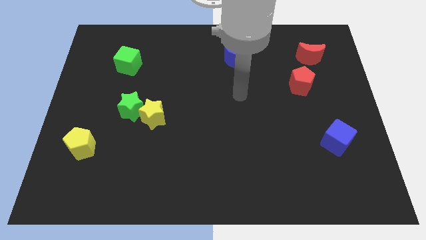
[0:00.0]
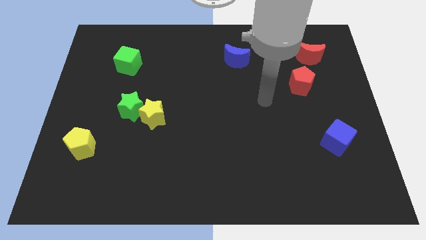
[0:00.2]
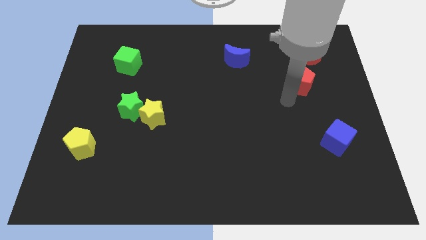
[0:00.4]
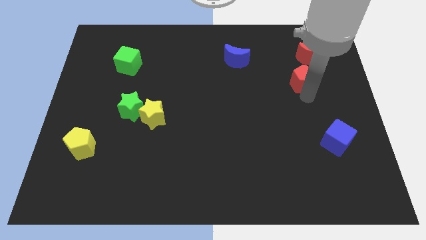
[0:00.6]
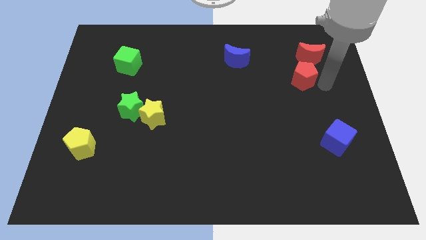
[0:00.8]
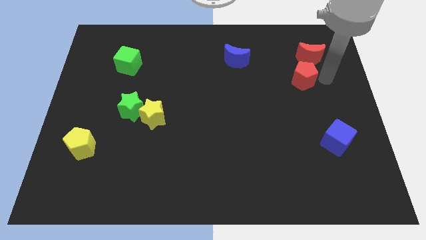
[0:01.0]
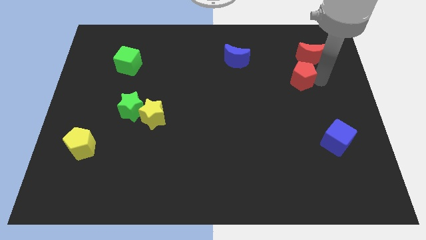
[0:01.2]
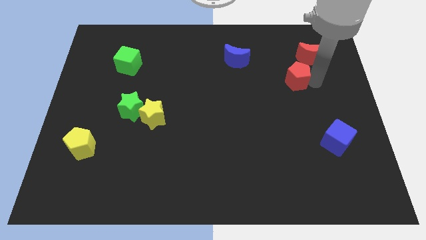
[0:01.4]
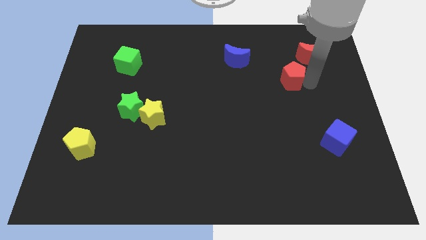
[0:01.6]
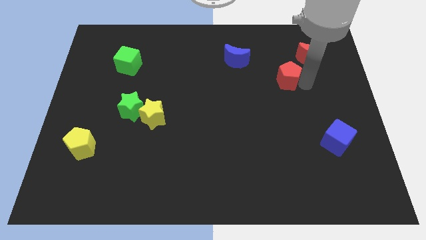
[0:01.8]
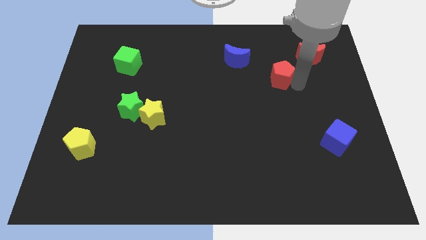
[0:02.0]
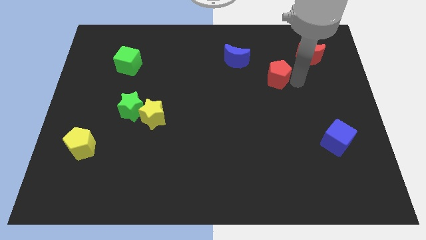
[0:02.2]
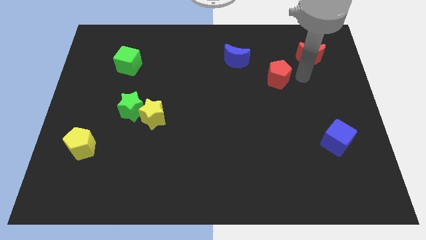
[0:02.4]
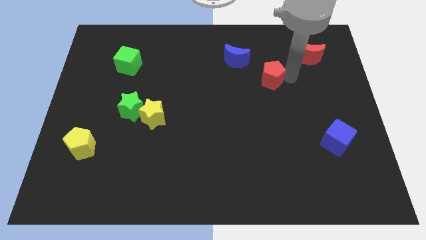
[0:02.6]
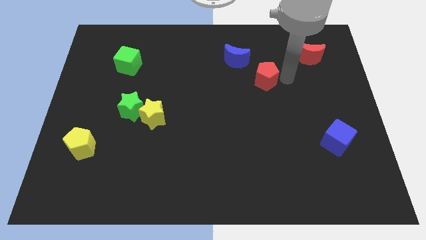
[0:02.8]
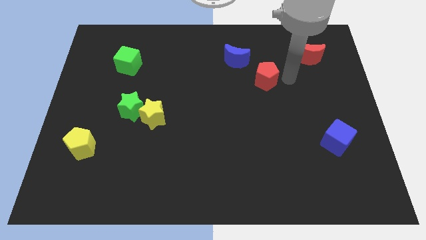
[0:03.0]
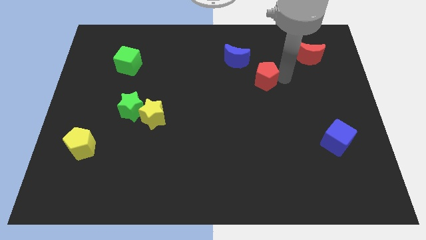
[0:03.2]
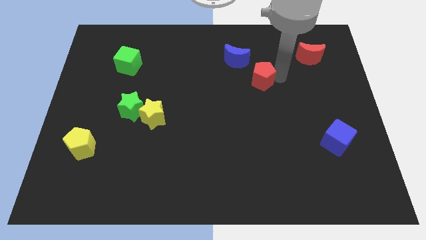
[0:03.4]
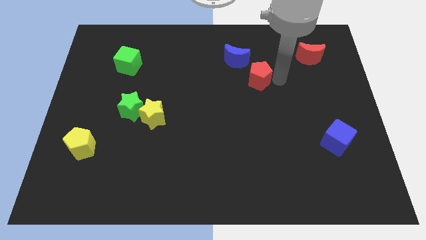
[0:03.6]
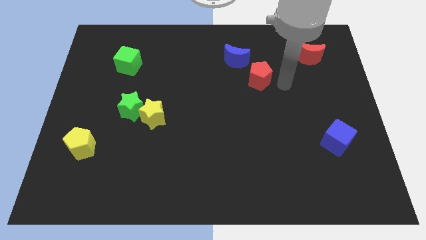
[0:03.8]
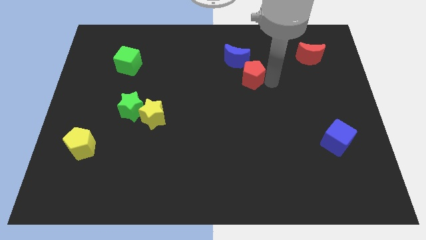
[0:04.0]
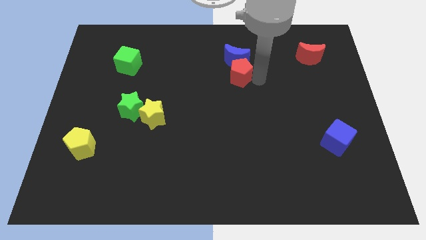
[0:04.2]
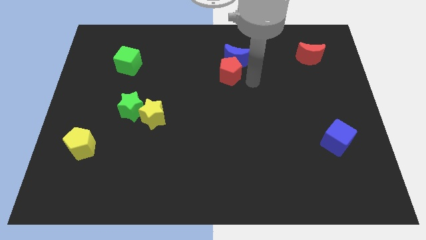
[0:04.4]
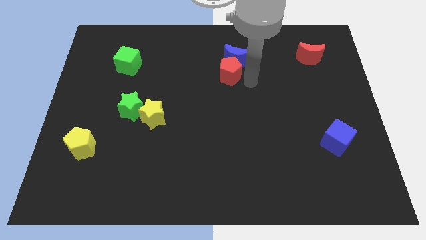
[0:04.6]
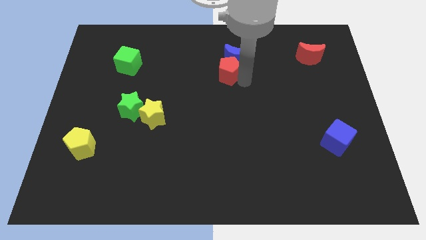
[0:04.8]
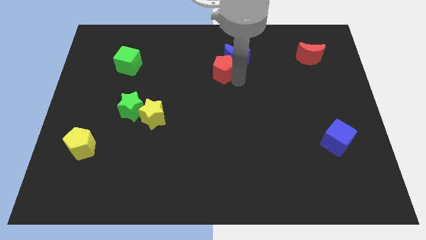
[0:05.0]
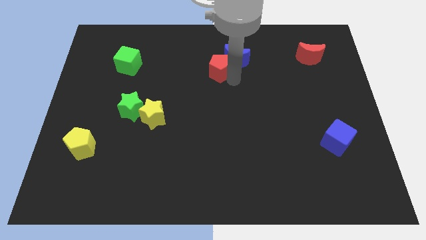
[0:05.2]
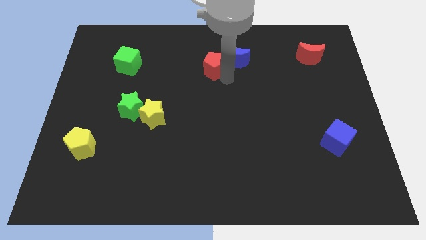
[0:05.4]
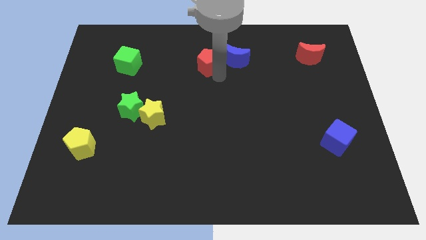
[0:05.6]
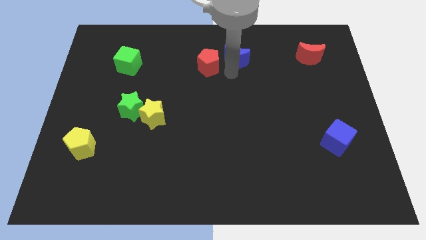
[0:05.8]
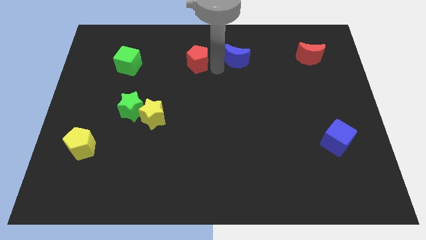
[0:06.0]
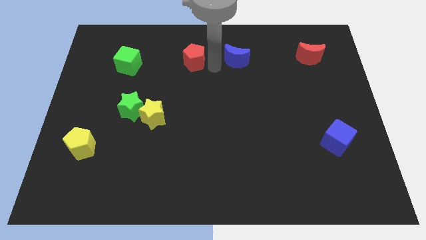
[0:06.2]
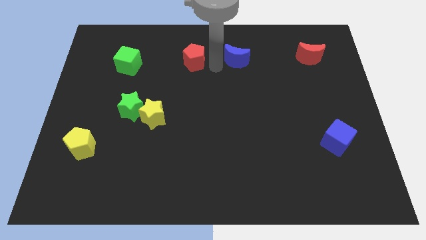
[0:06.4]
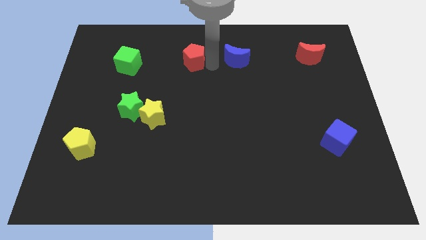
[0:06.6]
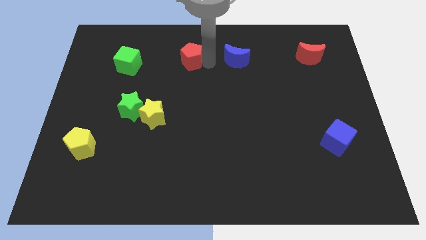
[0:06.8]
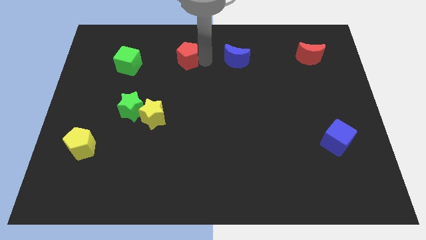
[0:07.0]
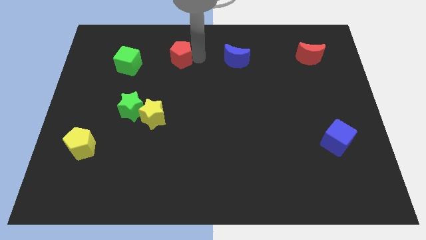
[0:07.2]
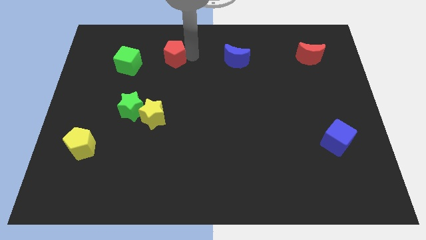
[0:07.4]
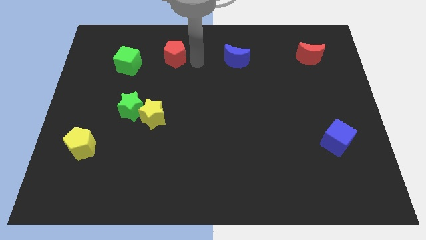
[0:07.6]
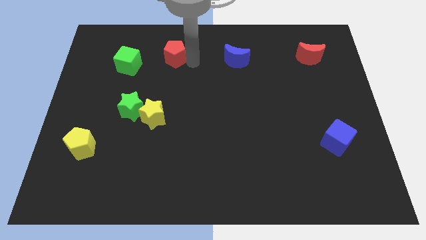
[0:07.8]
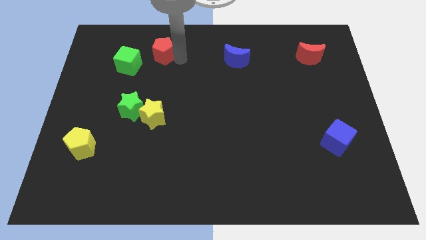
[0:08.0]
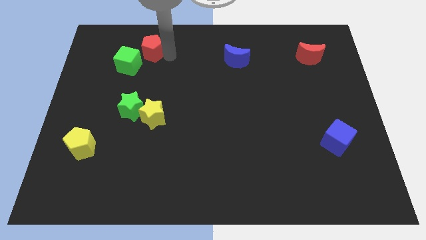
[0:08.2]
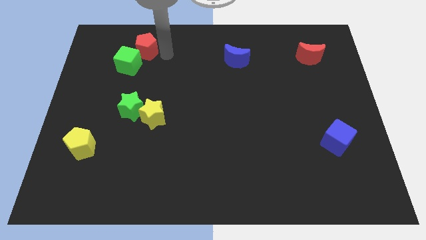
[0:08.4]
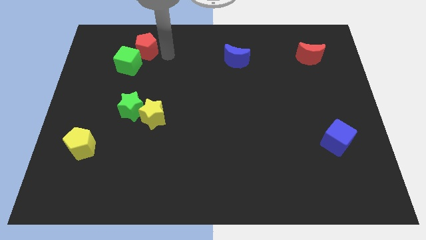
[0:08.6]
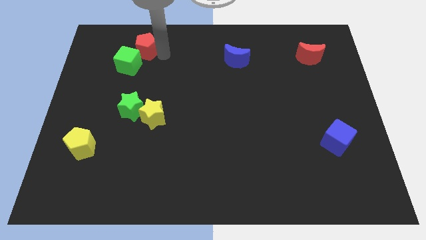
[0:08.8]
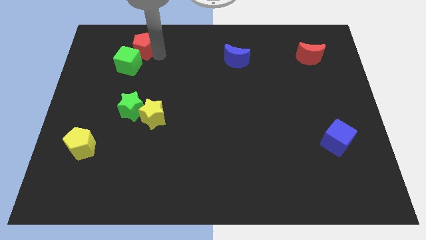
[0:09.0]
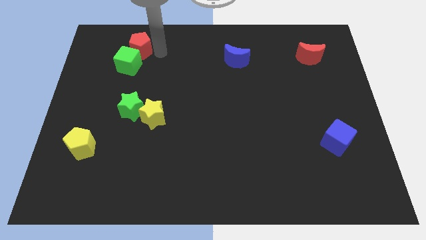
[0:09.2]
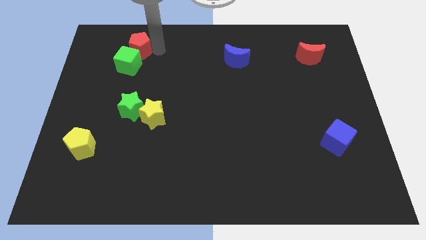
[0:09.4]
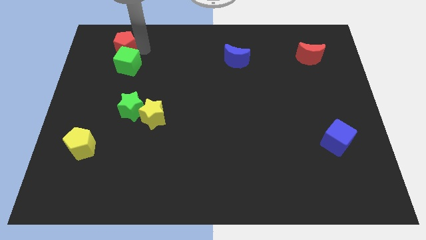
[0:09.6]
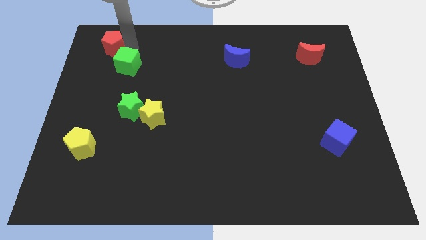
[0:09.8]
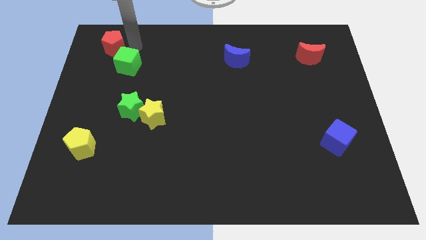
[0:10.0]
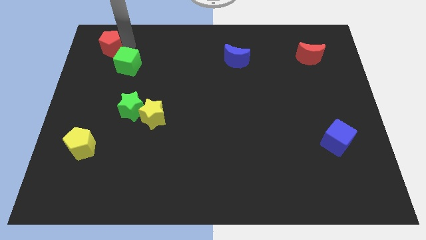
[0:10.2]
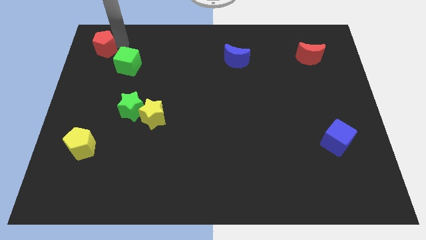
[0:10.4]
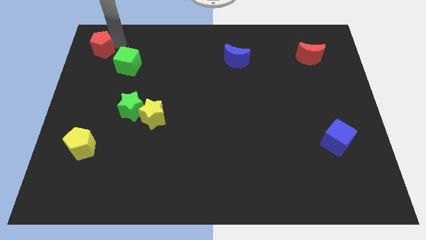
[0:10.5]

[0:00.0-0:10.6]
put the red pentagon to the upper left corner

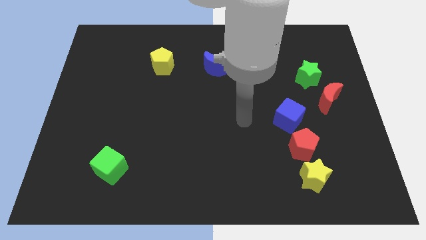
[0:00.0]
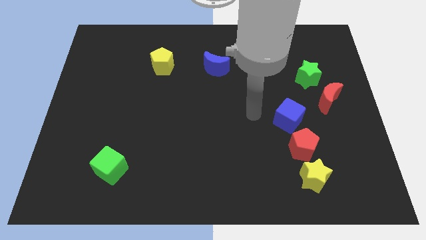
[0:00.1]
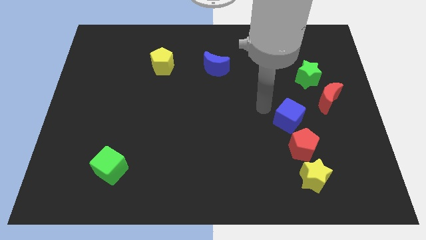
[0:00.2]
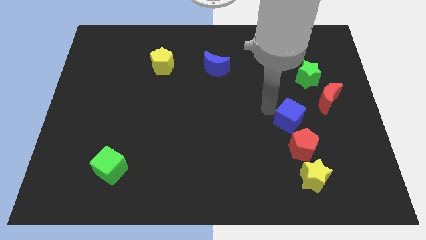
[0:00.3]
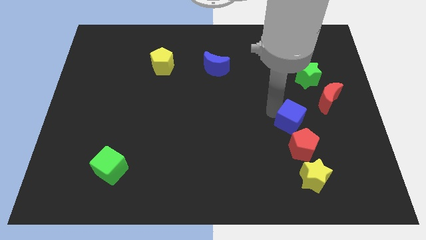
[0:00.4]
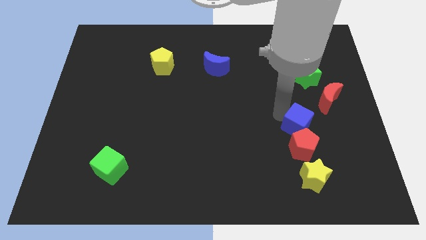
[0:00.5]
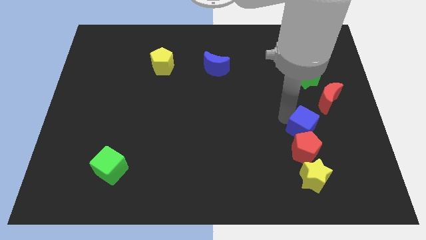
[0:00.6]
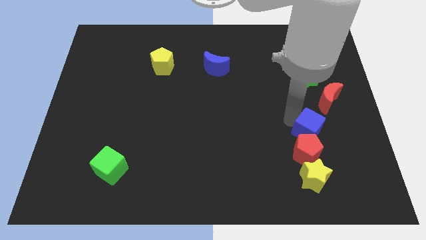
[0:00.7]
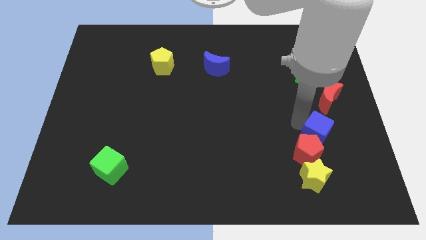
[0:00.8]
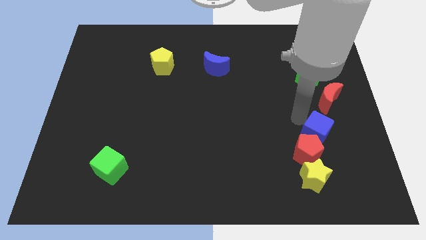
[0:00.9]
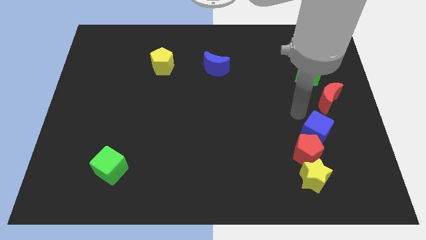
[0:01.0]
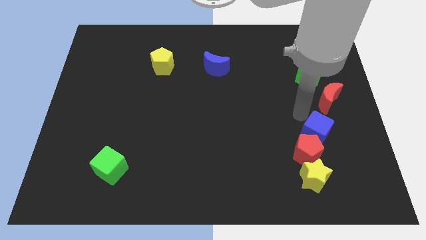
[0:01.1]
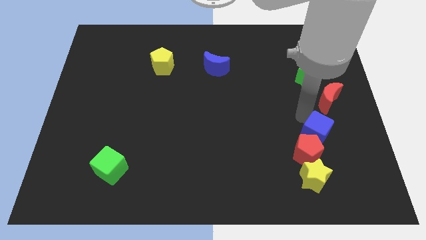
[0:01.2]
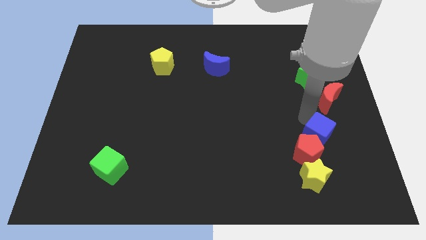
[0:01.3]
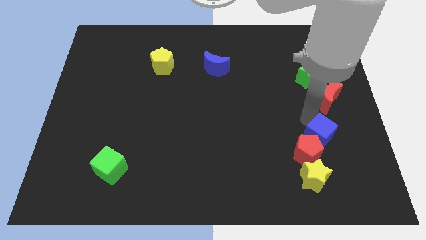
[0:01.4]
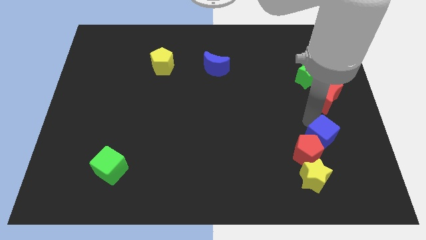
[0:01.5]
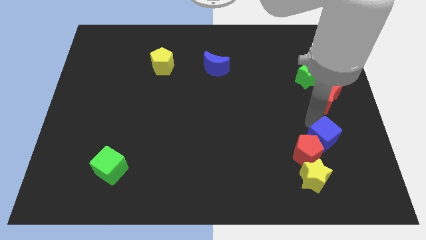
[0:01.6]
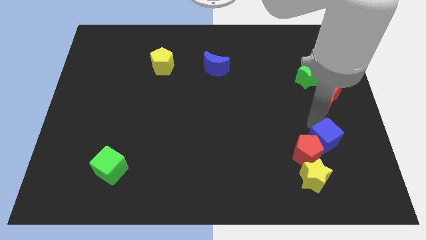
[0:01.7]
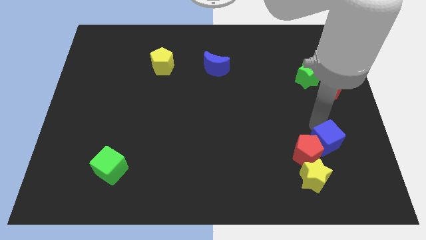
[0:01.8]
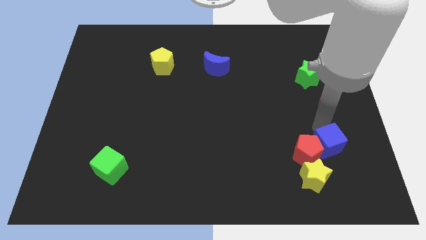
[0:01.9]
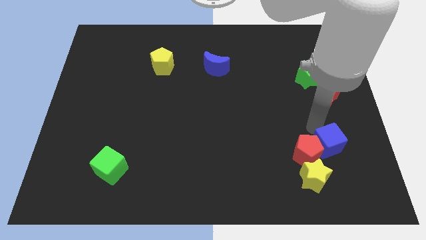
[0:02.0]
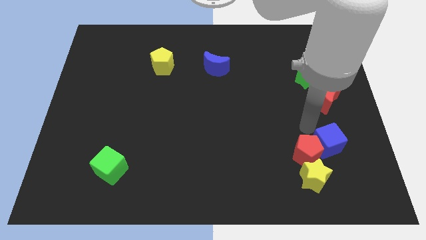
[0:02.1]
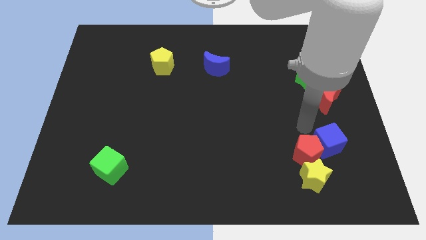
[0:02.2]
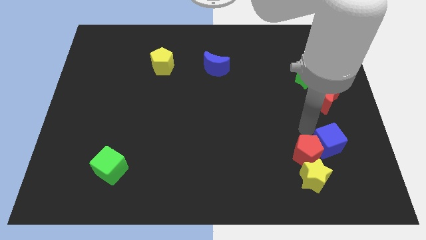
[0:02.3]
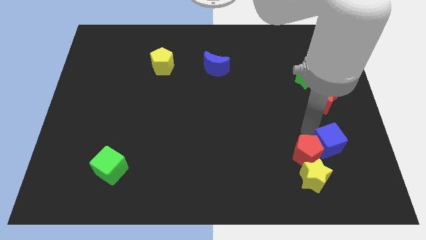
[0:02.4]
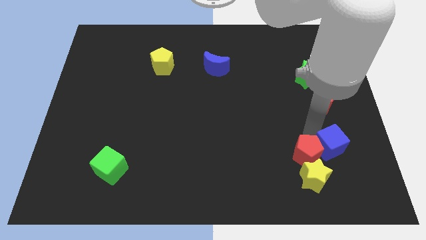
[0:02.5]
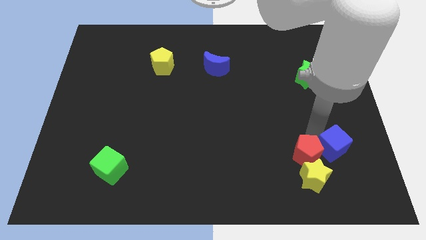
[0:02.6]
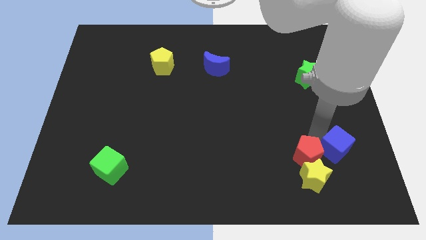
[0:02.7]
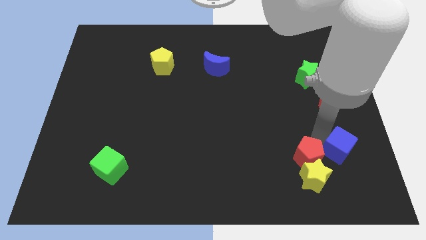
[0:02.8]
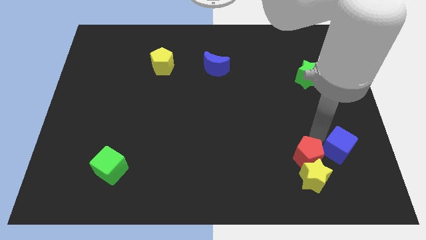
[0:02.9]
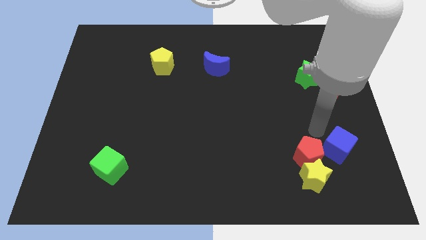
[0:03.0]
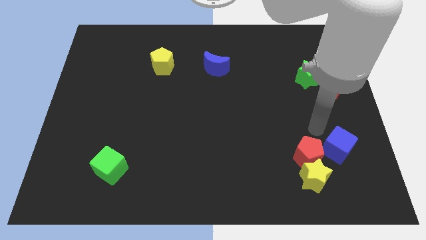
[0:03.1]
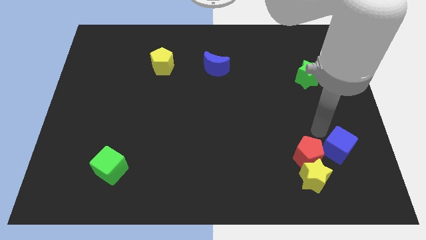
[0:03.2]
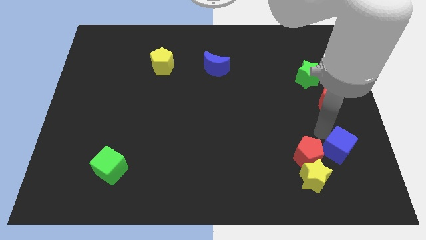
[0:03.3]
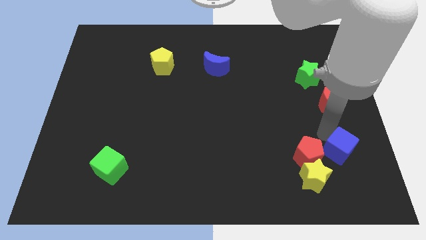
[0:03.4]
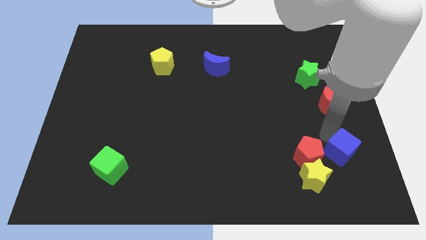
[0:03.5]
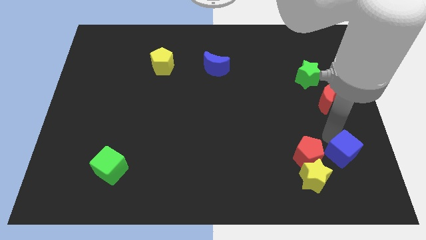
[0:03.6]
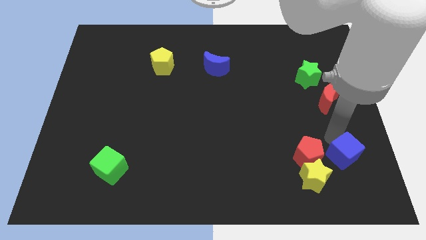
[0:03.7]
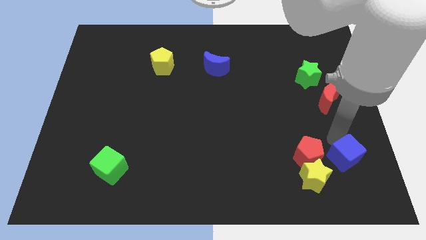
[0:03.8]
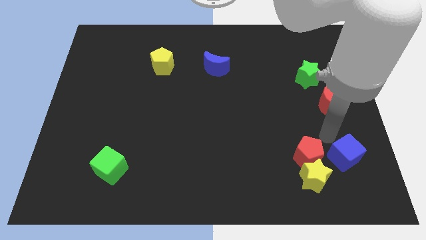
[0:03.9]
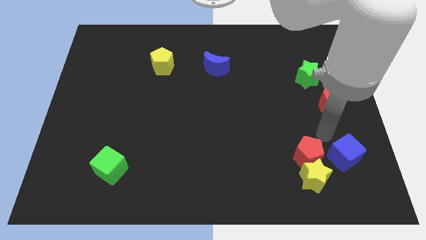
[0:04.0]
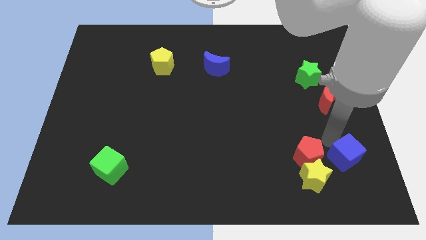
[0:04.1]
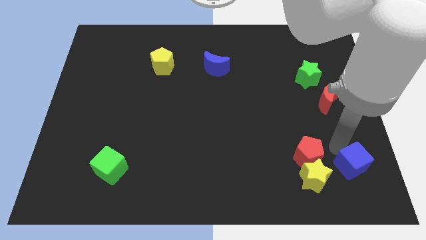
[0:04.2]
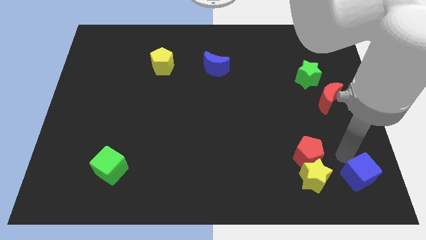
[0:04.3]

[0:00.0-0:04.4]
slide the blue cube to the bottom right
